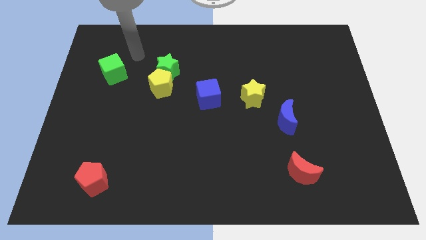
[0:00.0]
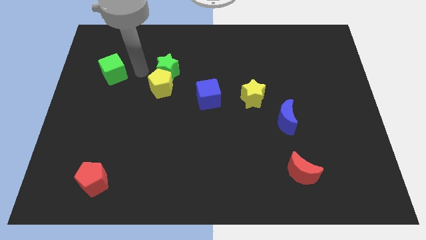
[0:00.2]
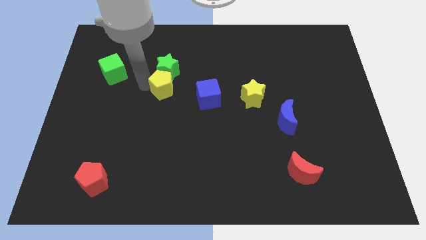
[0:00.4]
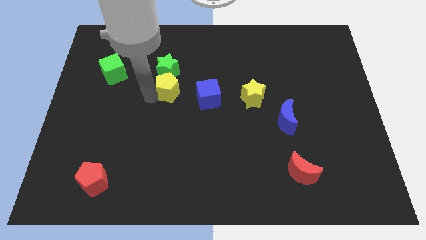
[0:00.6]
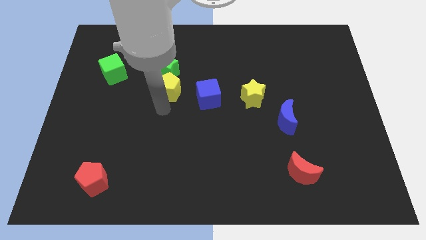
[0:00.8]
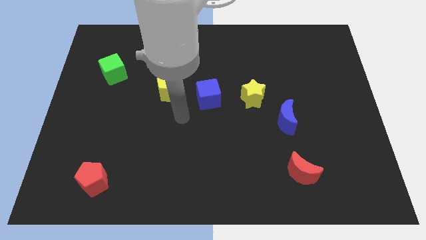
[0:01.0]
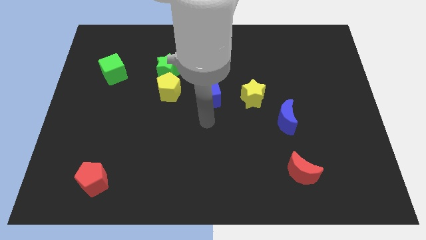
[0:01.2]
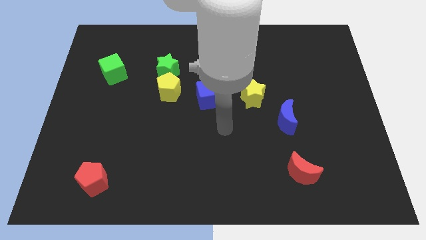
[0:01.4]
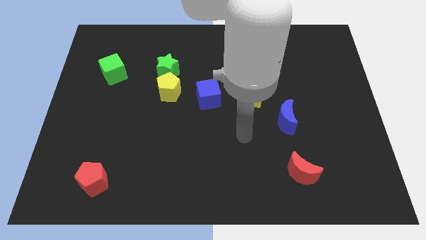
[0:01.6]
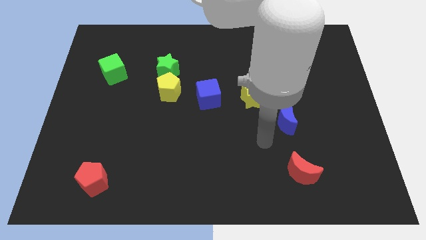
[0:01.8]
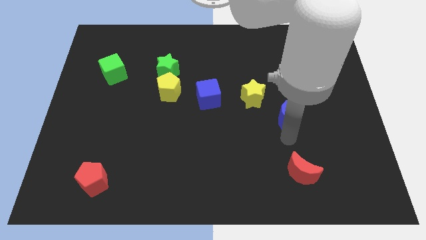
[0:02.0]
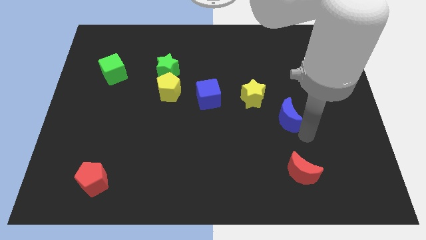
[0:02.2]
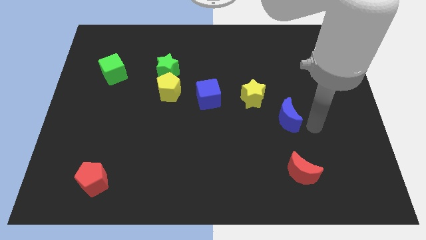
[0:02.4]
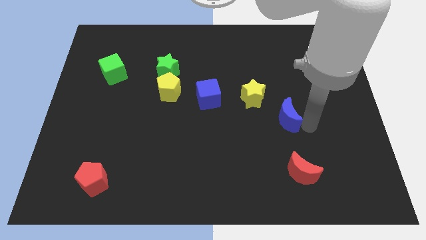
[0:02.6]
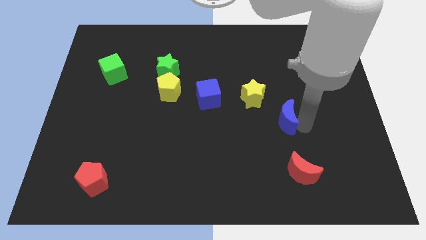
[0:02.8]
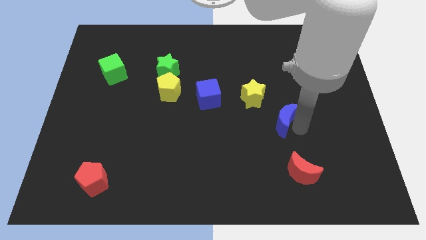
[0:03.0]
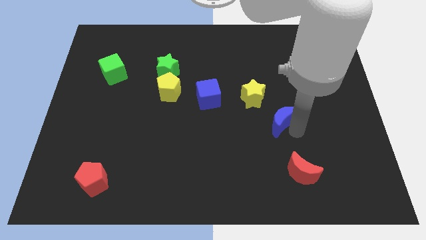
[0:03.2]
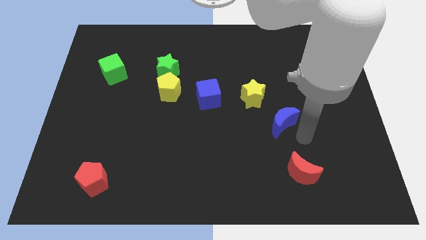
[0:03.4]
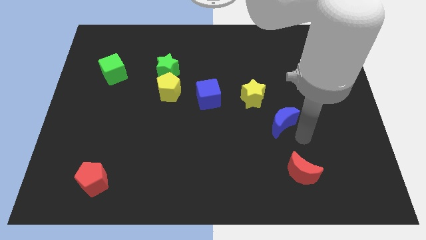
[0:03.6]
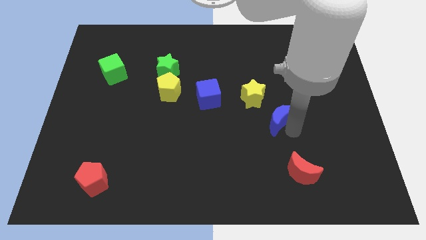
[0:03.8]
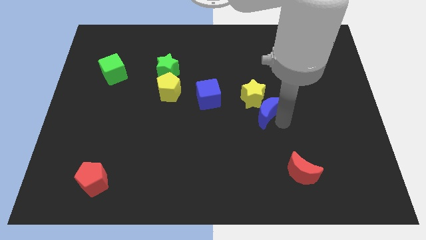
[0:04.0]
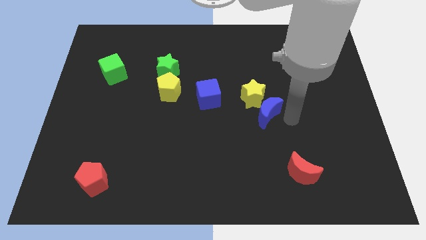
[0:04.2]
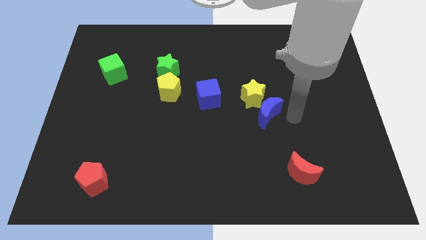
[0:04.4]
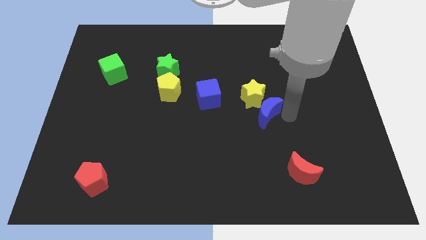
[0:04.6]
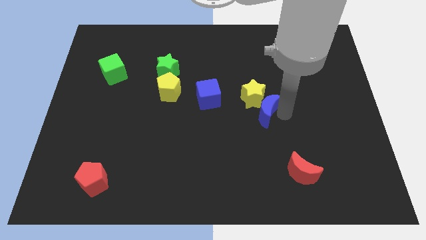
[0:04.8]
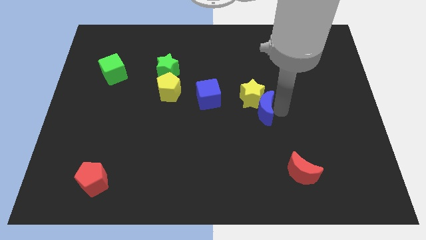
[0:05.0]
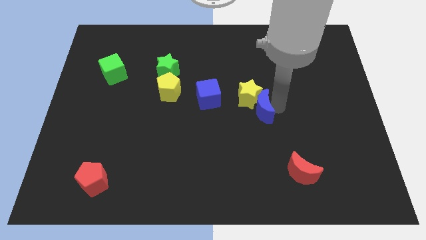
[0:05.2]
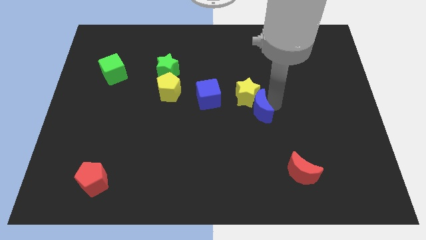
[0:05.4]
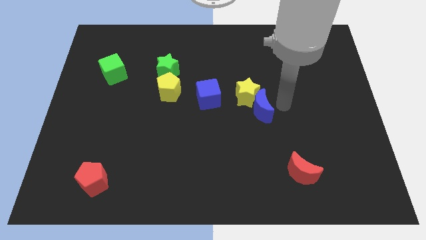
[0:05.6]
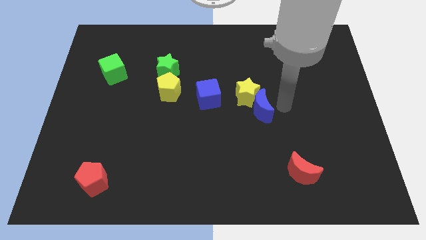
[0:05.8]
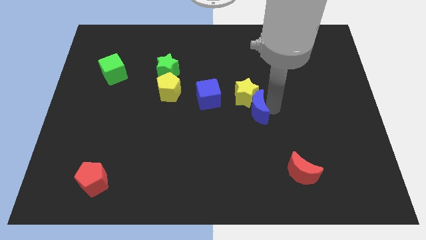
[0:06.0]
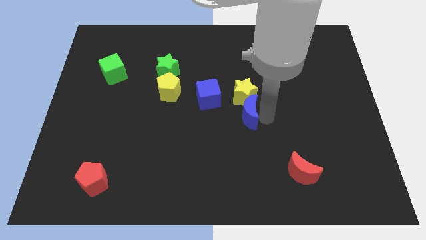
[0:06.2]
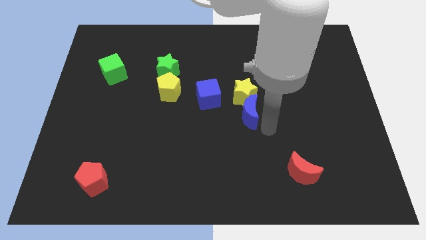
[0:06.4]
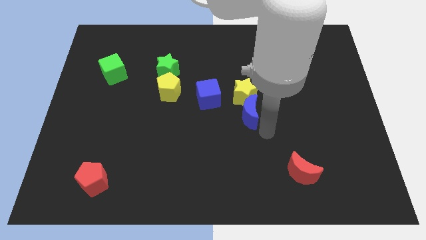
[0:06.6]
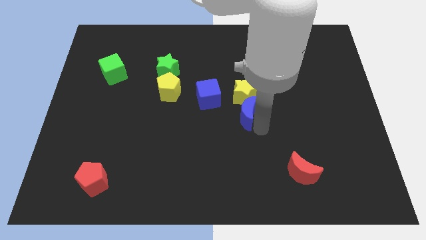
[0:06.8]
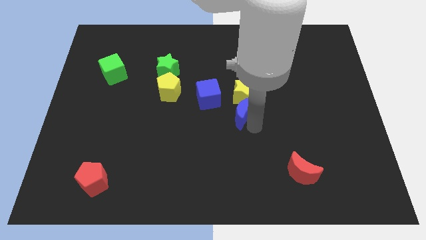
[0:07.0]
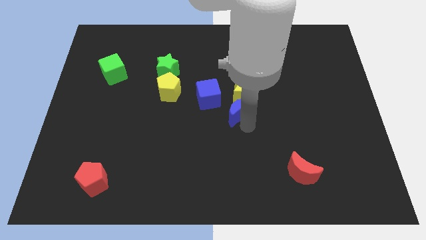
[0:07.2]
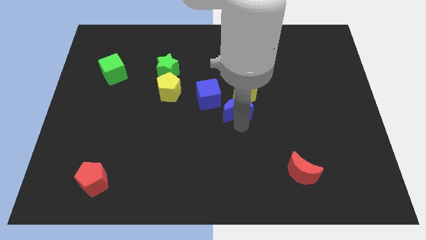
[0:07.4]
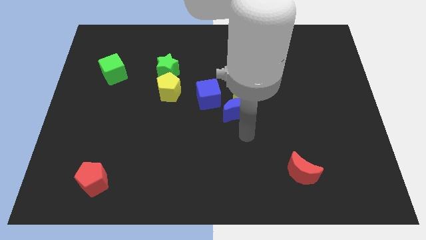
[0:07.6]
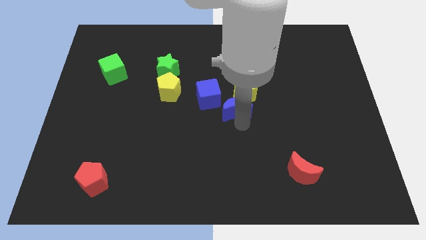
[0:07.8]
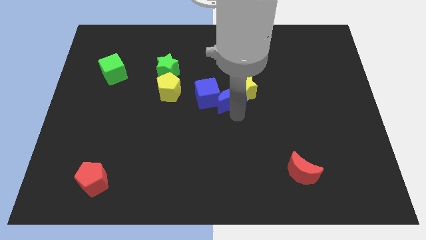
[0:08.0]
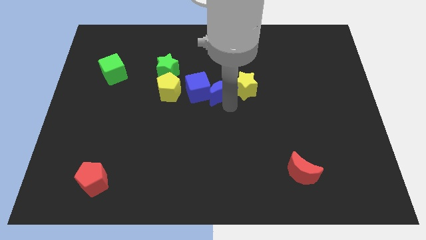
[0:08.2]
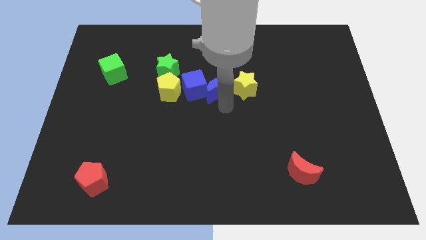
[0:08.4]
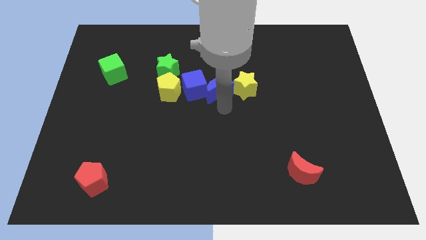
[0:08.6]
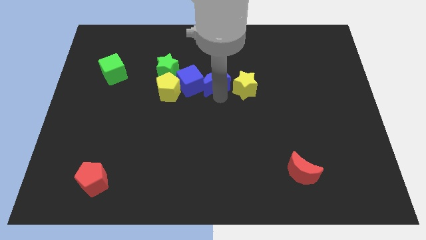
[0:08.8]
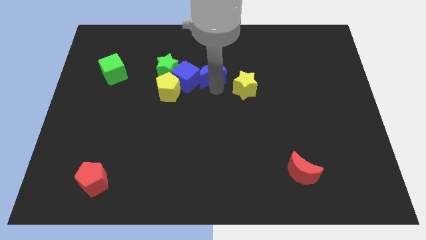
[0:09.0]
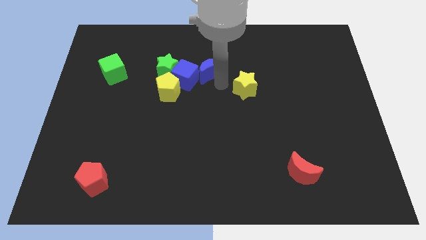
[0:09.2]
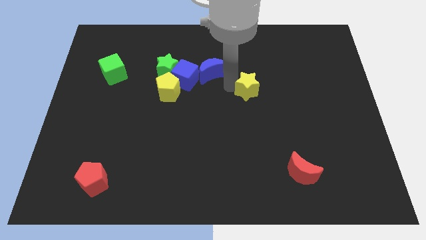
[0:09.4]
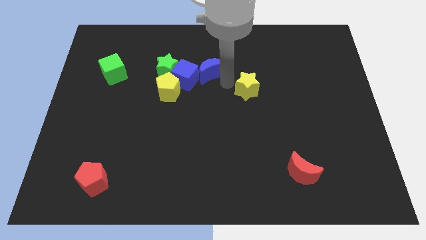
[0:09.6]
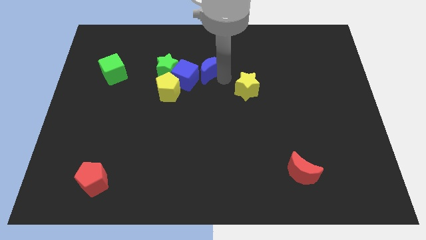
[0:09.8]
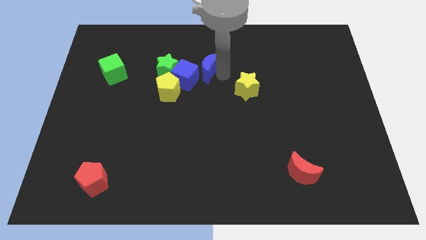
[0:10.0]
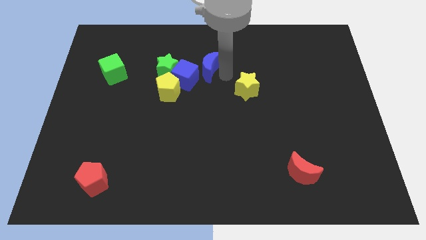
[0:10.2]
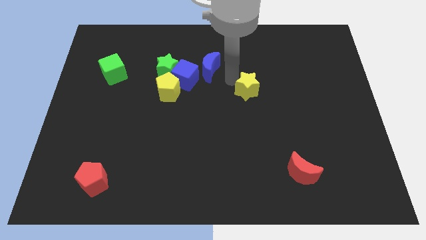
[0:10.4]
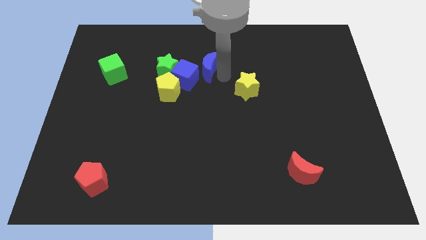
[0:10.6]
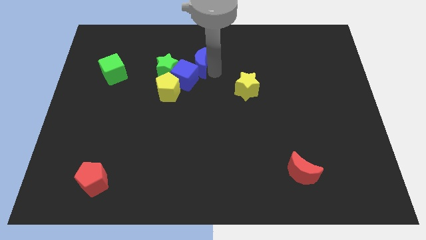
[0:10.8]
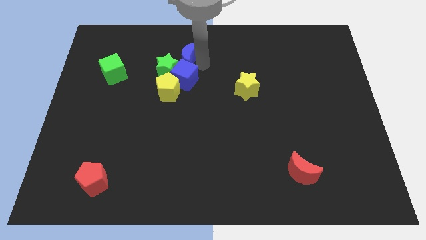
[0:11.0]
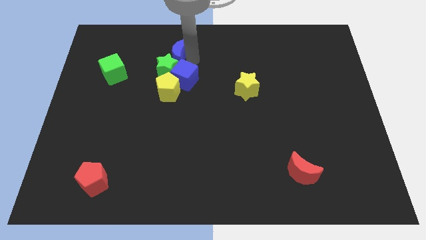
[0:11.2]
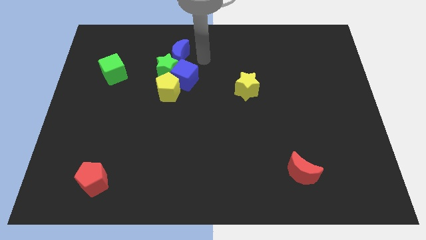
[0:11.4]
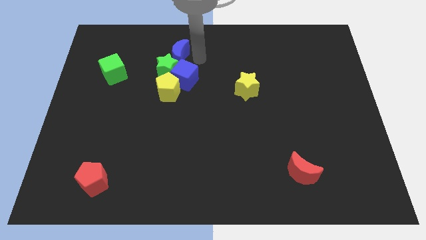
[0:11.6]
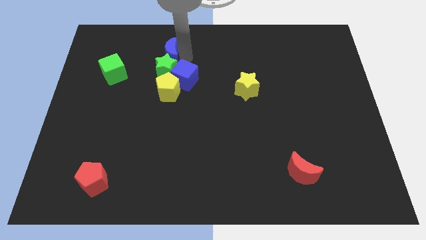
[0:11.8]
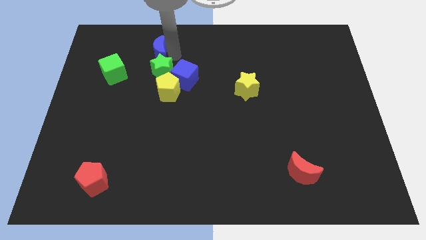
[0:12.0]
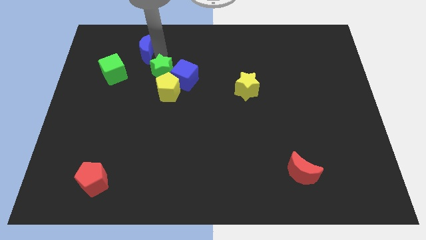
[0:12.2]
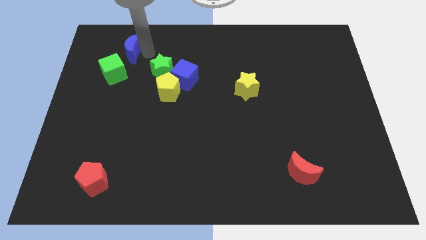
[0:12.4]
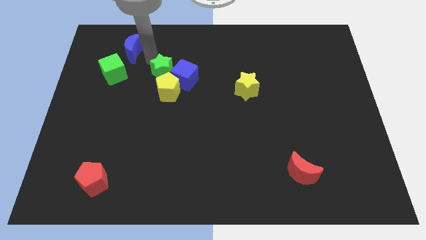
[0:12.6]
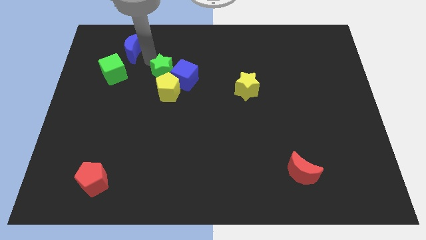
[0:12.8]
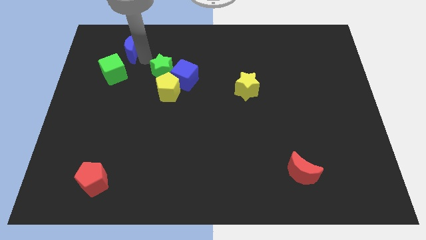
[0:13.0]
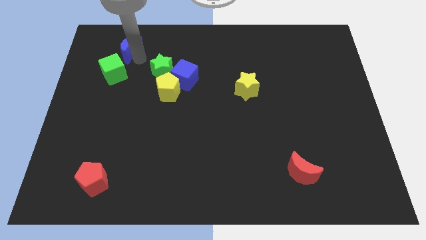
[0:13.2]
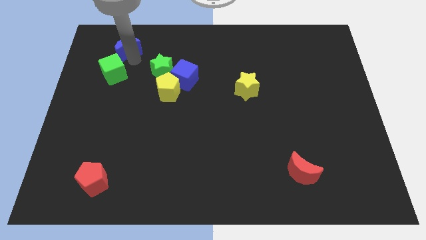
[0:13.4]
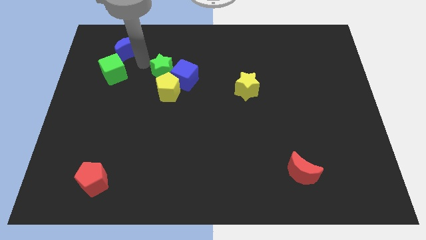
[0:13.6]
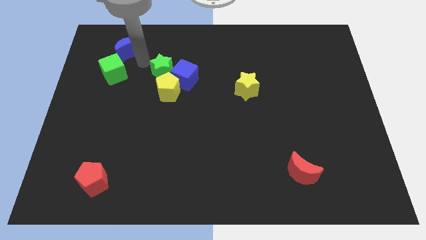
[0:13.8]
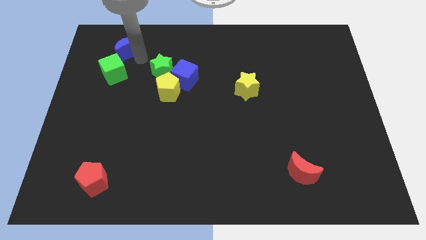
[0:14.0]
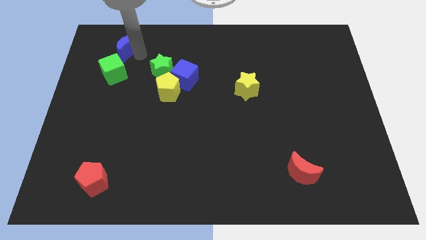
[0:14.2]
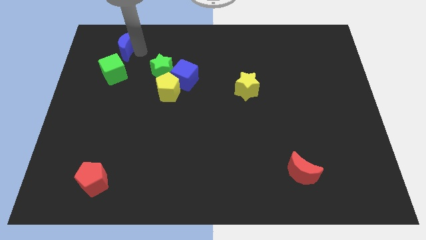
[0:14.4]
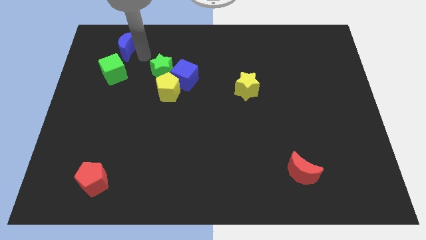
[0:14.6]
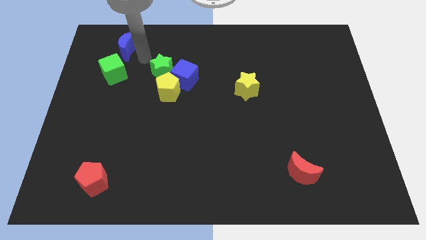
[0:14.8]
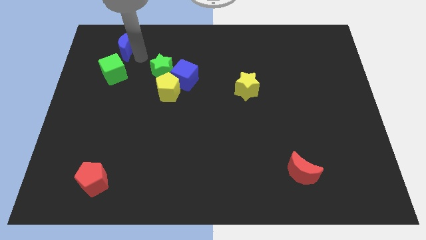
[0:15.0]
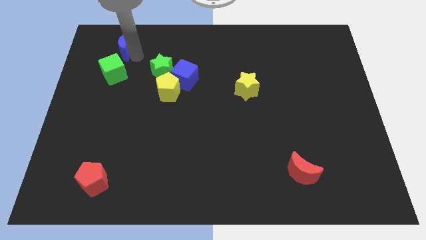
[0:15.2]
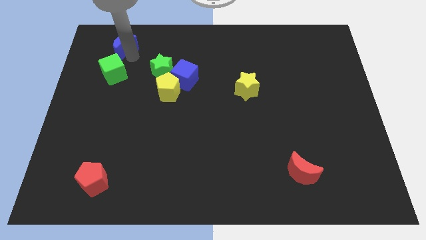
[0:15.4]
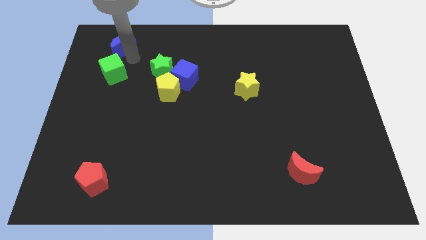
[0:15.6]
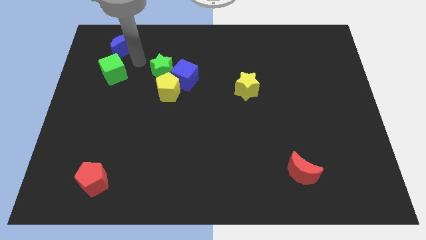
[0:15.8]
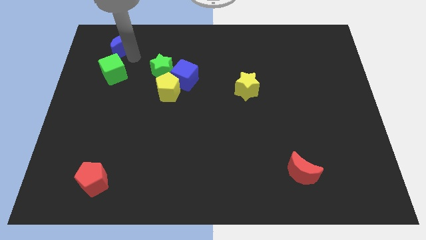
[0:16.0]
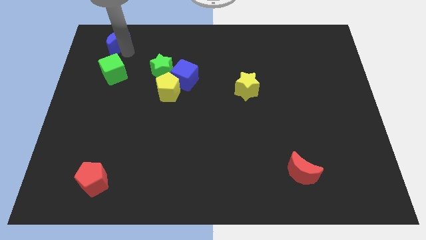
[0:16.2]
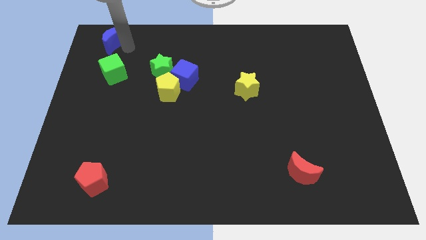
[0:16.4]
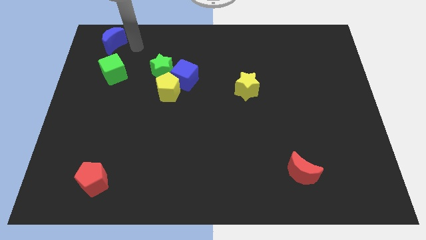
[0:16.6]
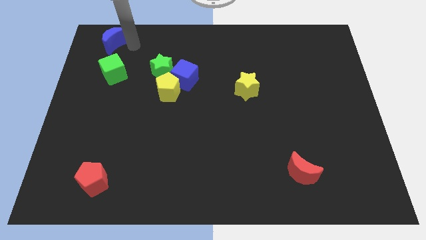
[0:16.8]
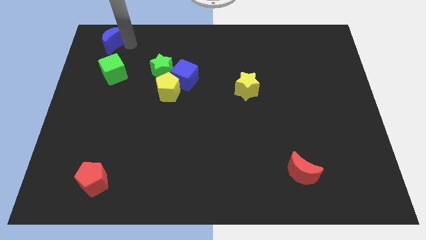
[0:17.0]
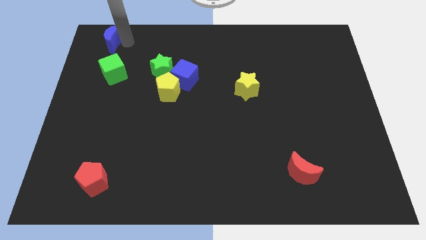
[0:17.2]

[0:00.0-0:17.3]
move the blue moon to the upper left corner
